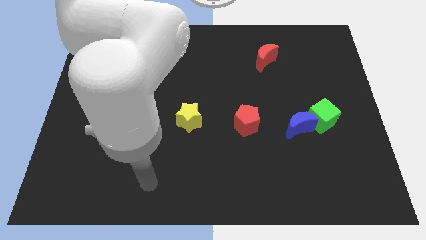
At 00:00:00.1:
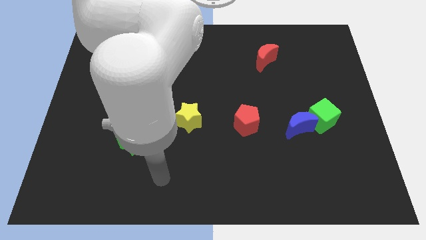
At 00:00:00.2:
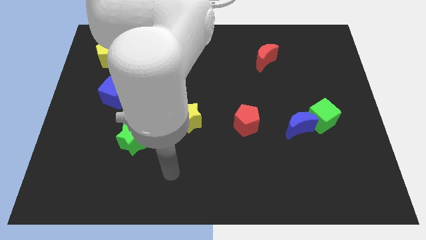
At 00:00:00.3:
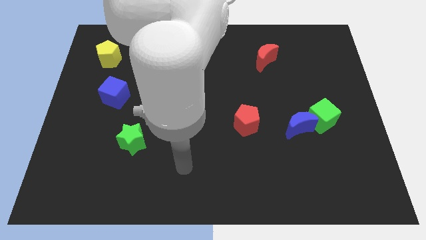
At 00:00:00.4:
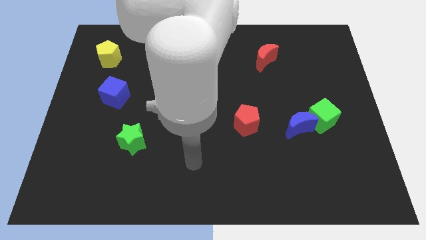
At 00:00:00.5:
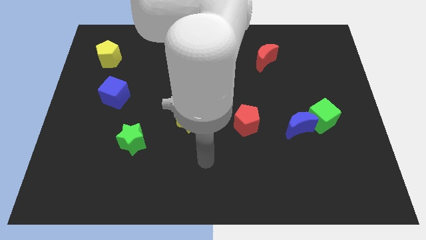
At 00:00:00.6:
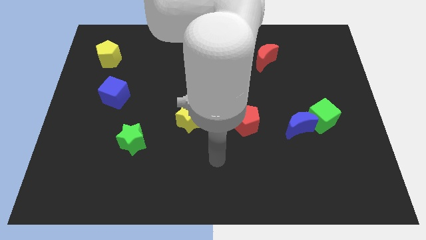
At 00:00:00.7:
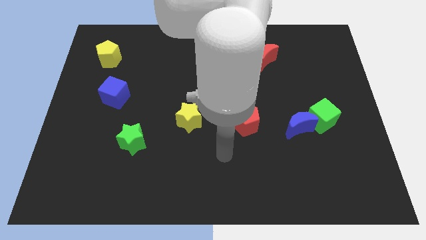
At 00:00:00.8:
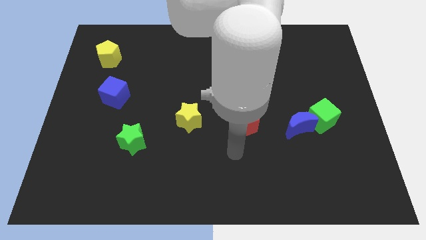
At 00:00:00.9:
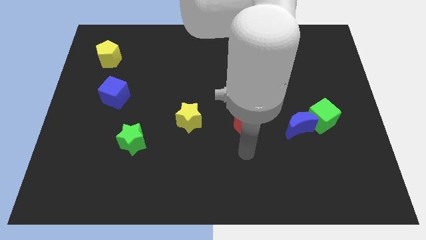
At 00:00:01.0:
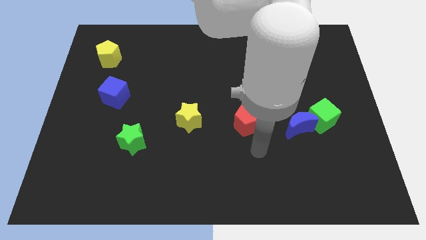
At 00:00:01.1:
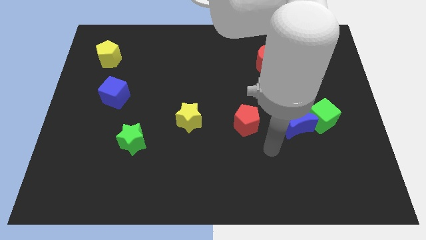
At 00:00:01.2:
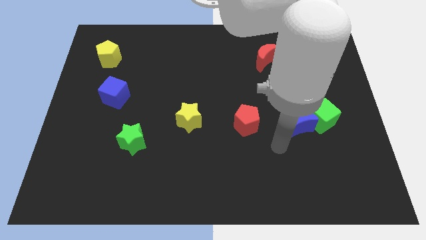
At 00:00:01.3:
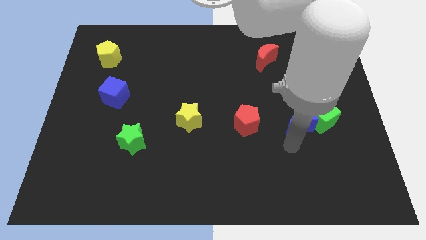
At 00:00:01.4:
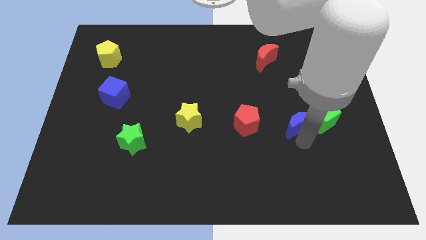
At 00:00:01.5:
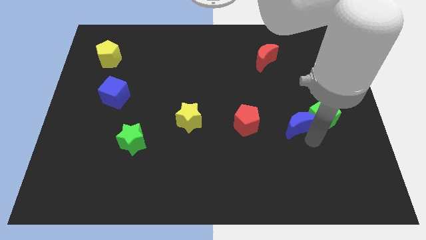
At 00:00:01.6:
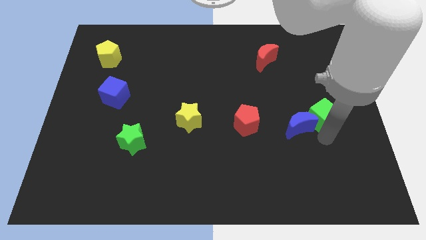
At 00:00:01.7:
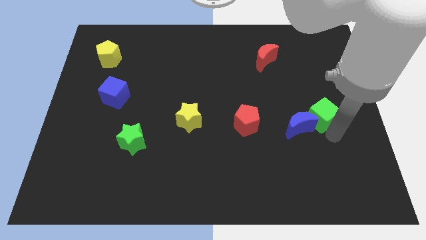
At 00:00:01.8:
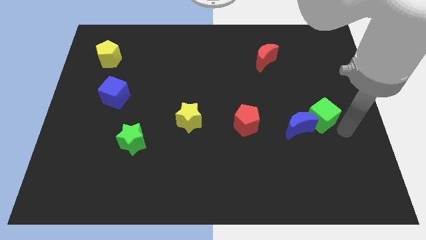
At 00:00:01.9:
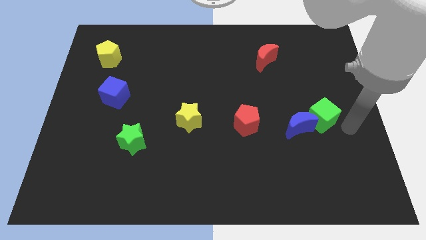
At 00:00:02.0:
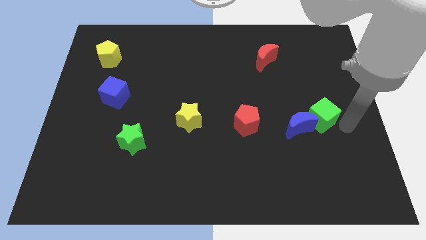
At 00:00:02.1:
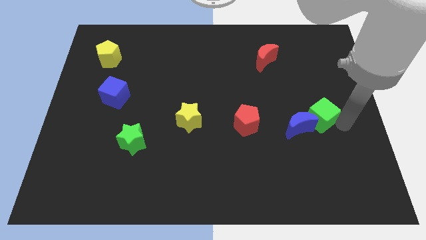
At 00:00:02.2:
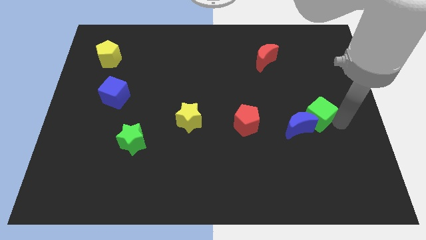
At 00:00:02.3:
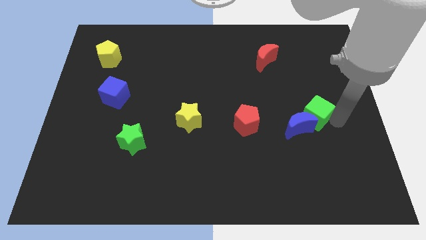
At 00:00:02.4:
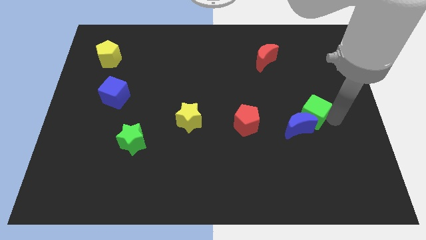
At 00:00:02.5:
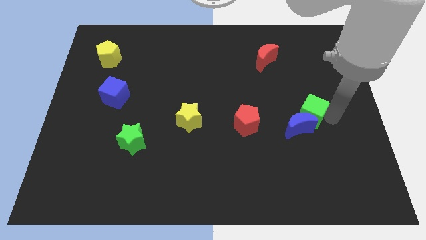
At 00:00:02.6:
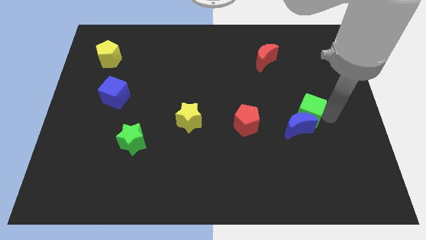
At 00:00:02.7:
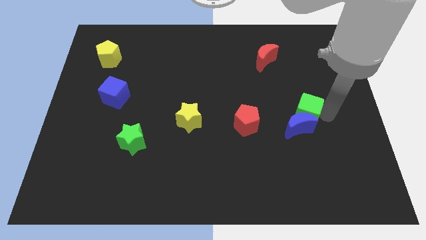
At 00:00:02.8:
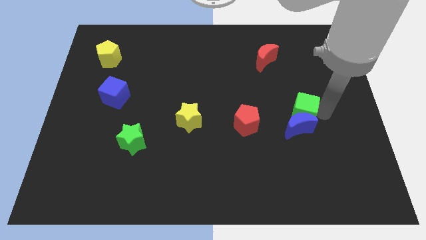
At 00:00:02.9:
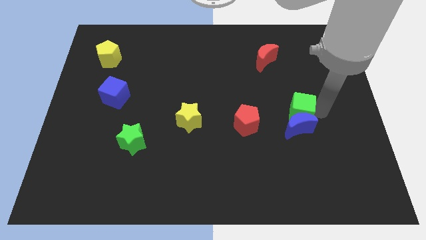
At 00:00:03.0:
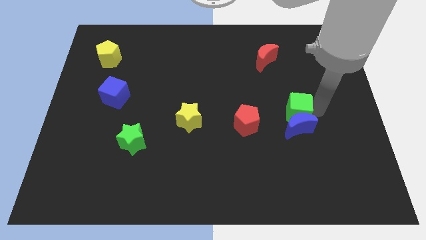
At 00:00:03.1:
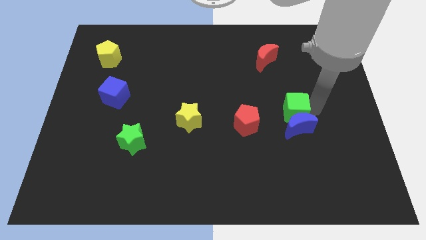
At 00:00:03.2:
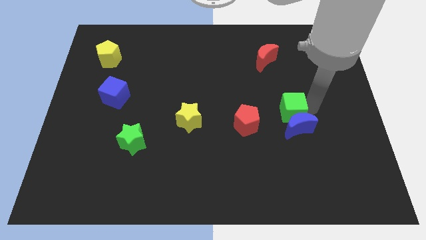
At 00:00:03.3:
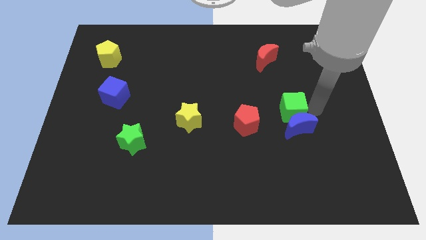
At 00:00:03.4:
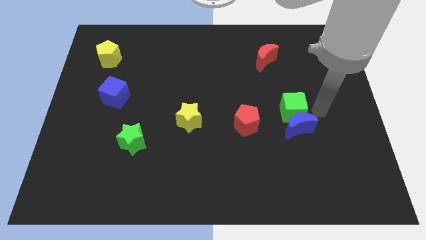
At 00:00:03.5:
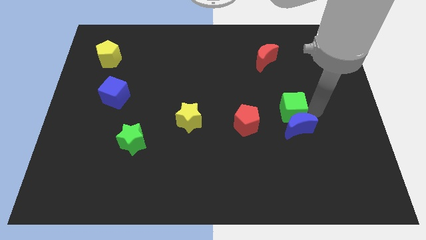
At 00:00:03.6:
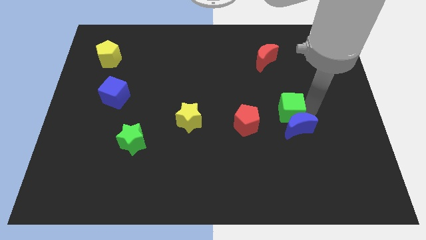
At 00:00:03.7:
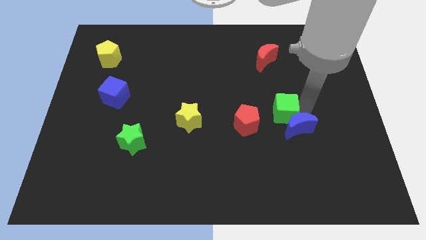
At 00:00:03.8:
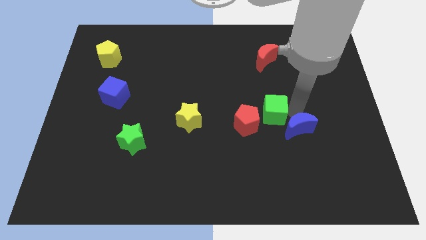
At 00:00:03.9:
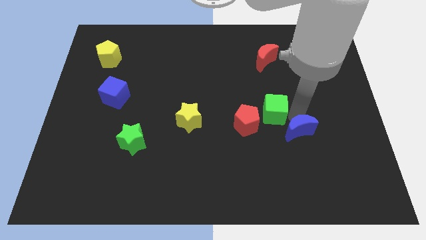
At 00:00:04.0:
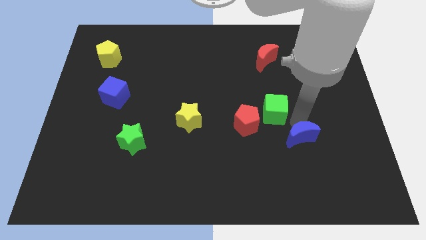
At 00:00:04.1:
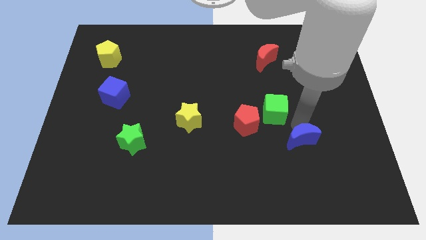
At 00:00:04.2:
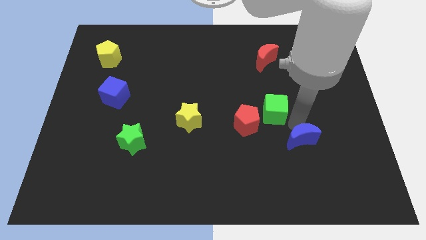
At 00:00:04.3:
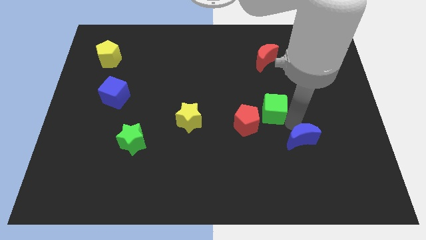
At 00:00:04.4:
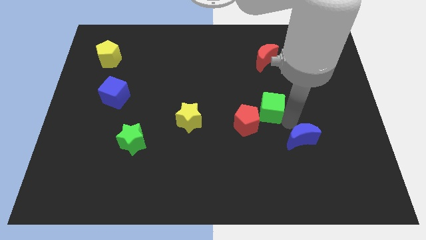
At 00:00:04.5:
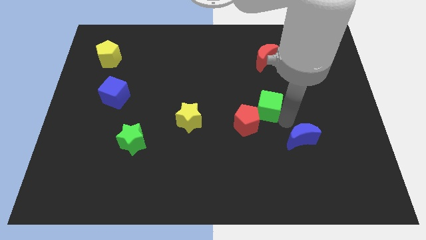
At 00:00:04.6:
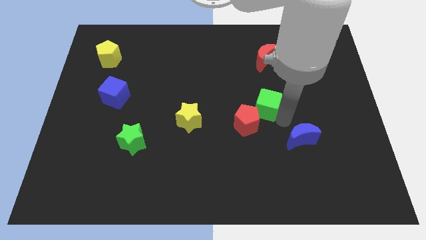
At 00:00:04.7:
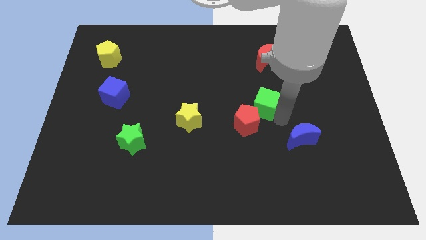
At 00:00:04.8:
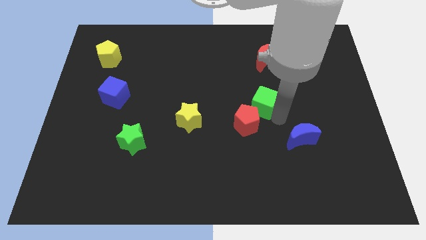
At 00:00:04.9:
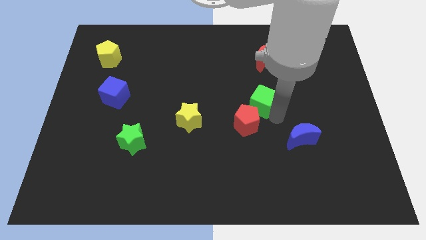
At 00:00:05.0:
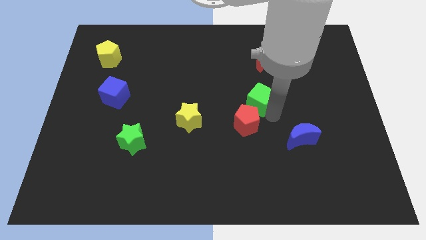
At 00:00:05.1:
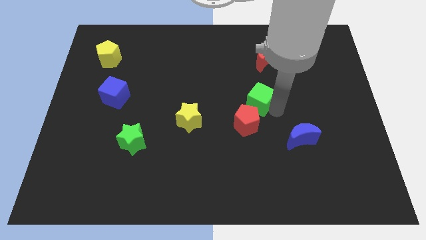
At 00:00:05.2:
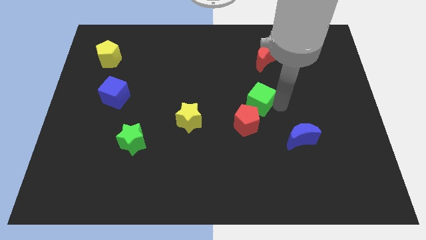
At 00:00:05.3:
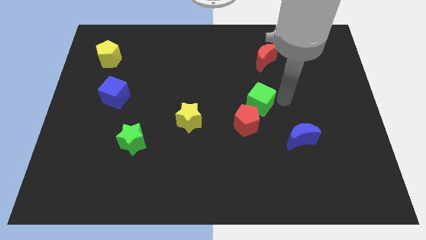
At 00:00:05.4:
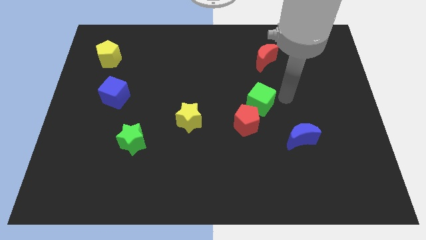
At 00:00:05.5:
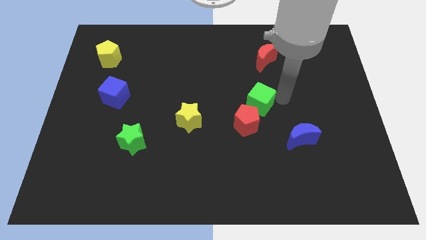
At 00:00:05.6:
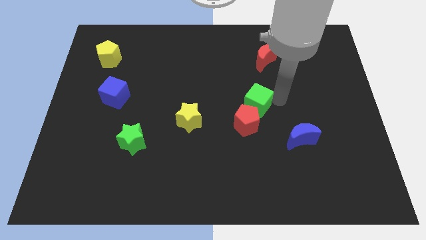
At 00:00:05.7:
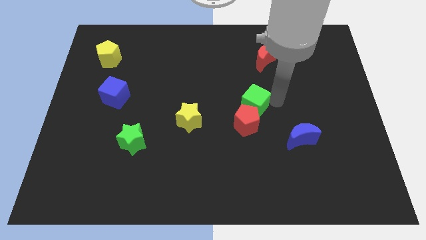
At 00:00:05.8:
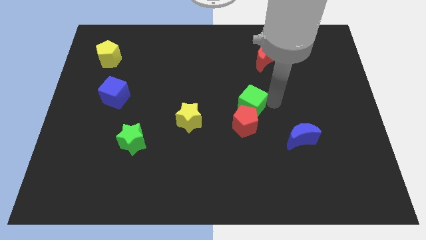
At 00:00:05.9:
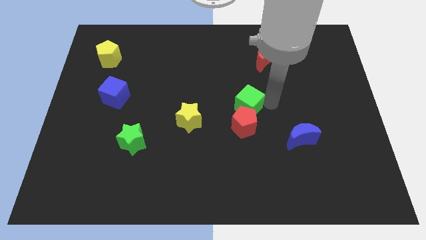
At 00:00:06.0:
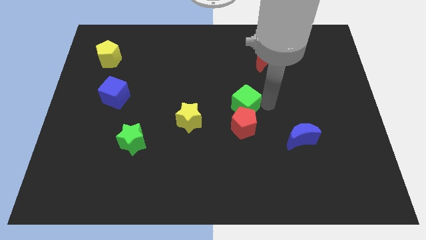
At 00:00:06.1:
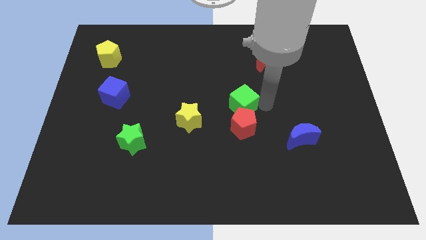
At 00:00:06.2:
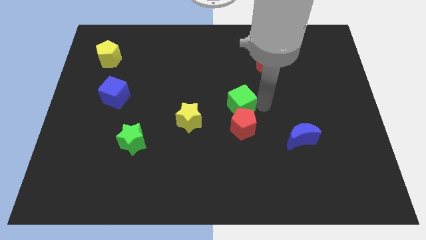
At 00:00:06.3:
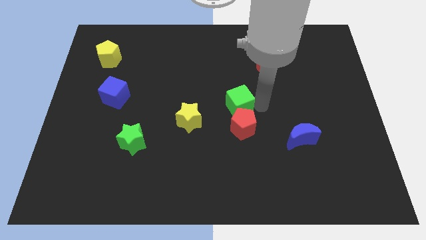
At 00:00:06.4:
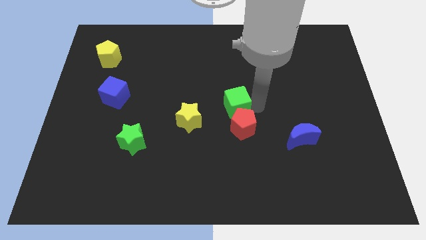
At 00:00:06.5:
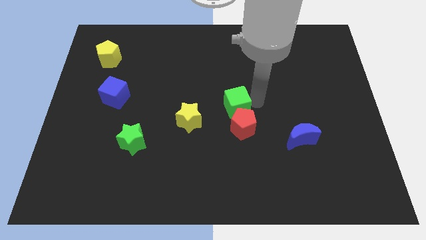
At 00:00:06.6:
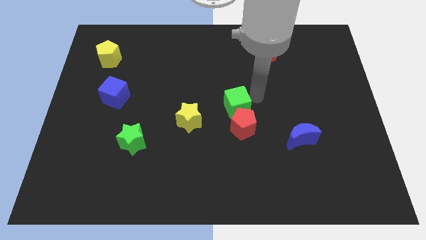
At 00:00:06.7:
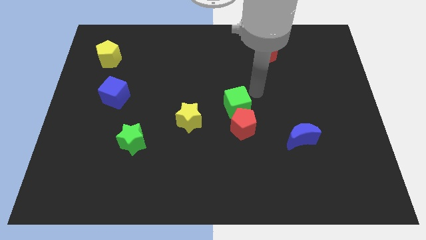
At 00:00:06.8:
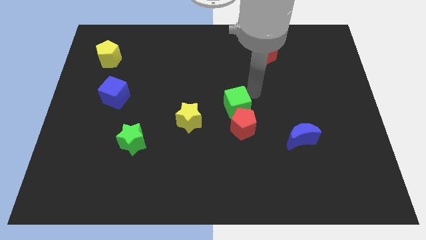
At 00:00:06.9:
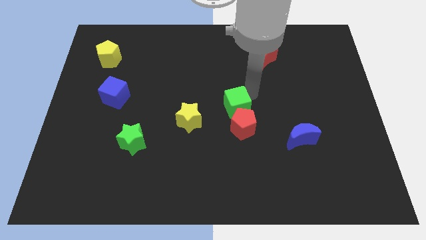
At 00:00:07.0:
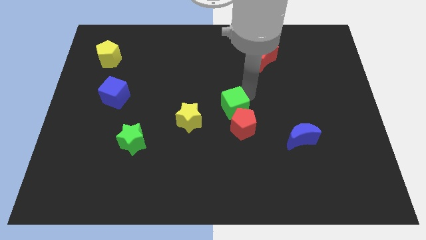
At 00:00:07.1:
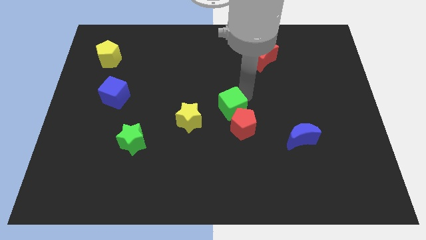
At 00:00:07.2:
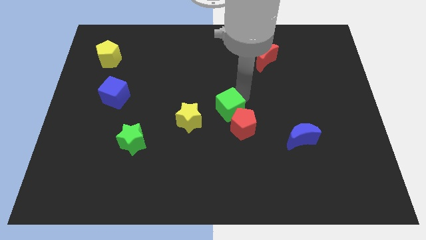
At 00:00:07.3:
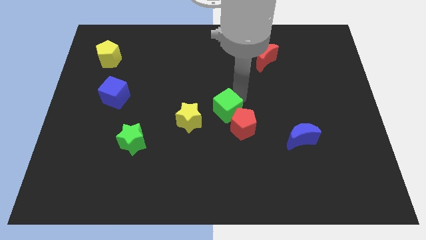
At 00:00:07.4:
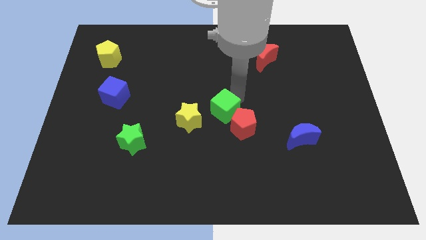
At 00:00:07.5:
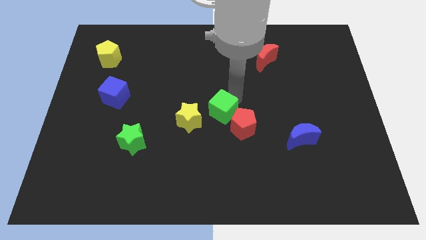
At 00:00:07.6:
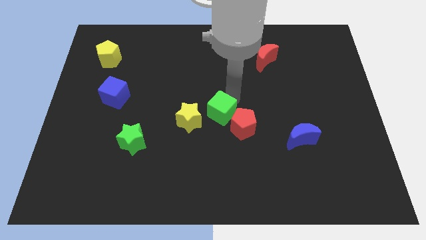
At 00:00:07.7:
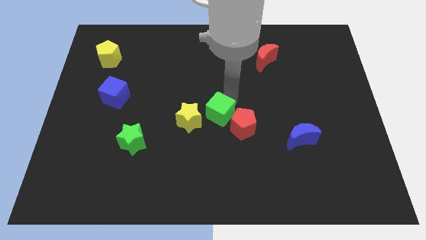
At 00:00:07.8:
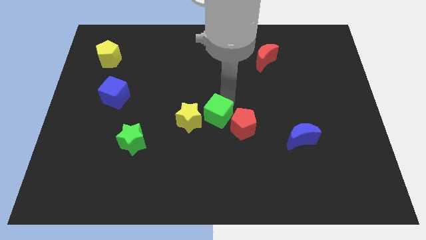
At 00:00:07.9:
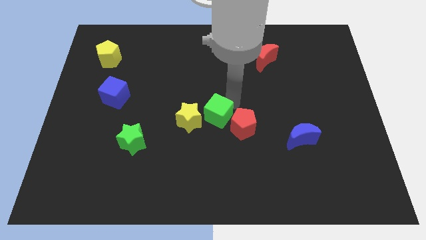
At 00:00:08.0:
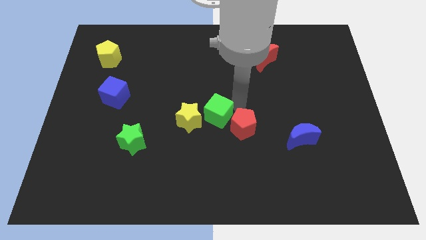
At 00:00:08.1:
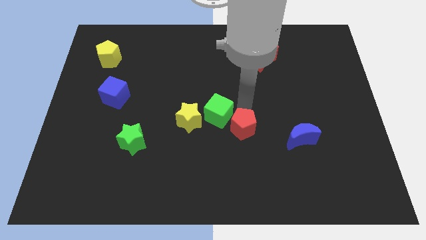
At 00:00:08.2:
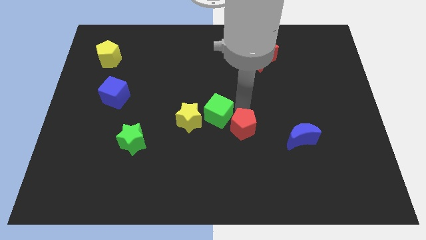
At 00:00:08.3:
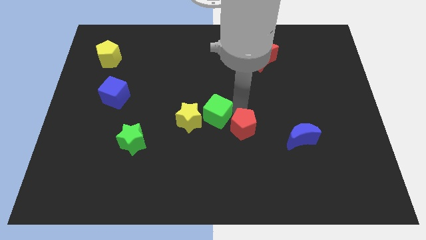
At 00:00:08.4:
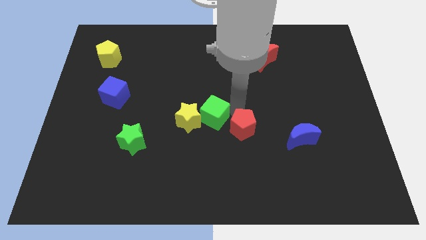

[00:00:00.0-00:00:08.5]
put the green cube towards the yellow star
